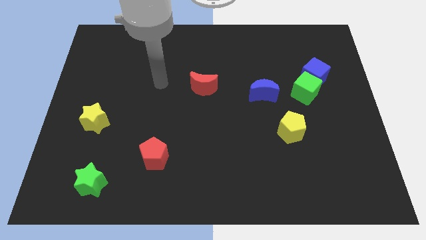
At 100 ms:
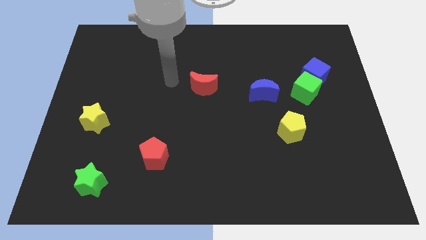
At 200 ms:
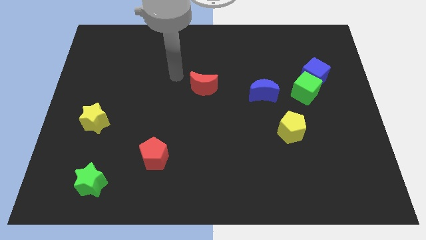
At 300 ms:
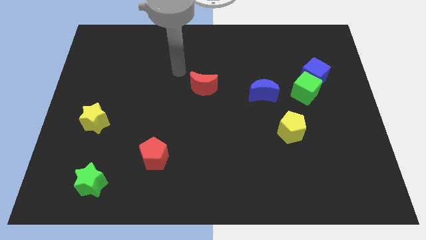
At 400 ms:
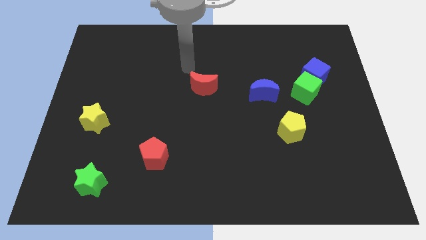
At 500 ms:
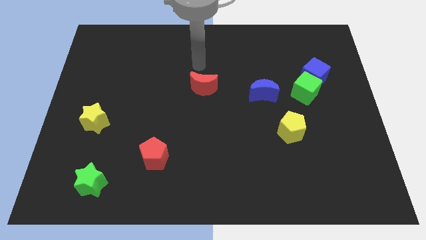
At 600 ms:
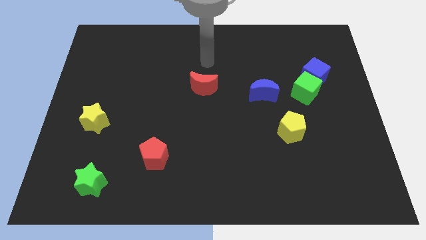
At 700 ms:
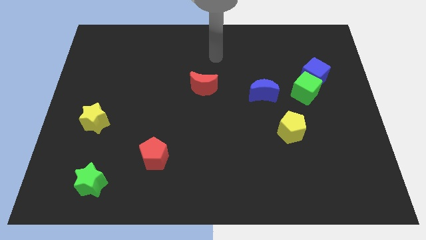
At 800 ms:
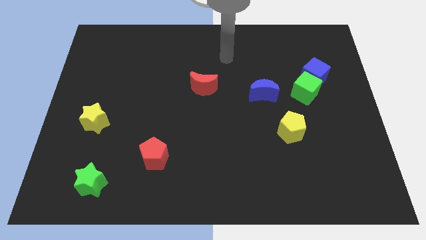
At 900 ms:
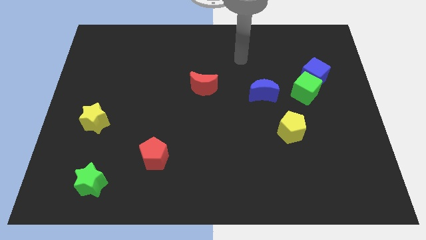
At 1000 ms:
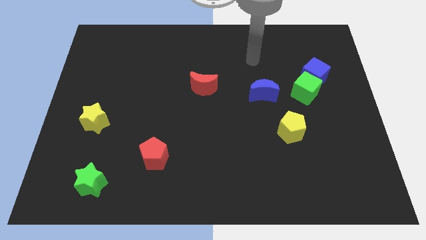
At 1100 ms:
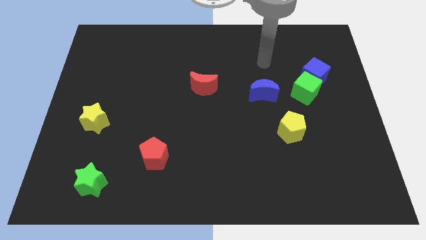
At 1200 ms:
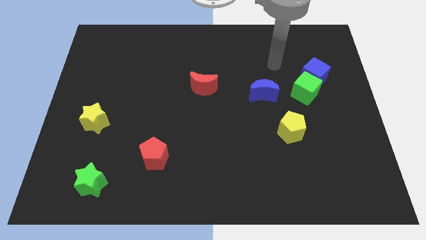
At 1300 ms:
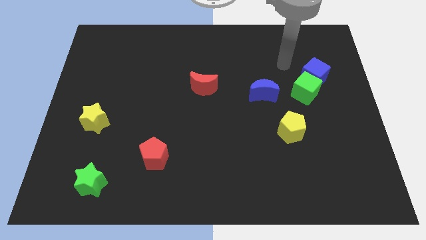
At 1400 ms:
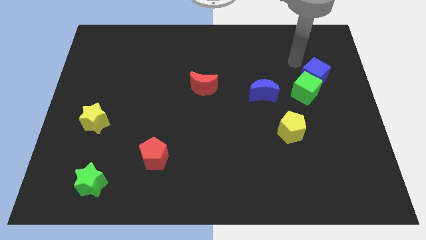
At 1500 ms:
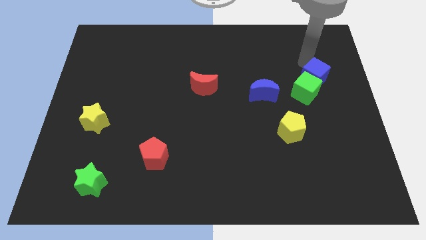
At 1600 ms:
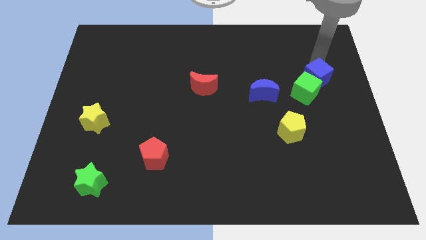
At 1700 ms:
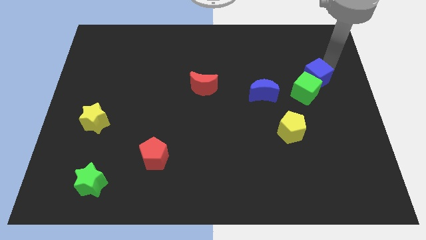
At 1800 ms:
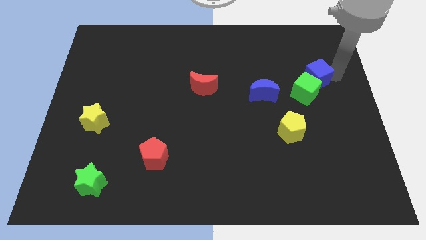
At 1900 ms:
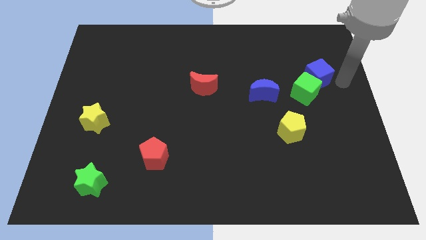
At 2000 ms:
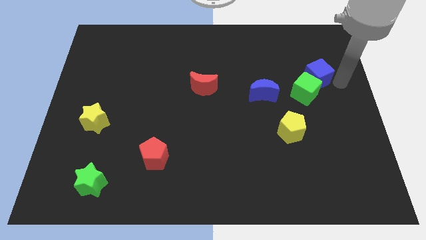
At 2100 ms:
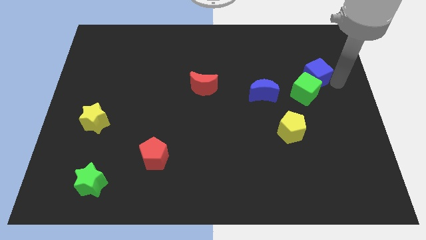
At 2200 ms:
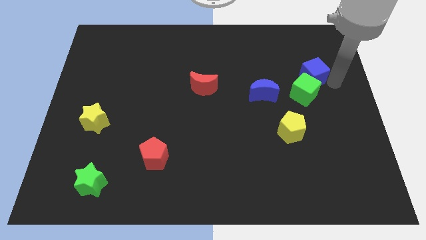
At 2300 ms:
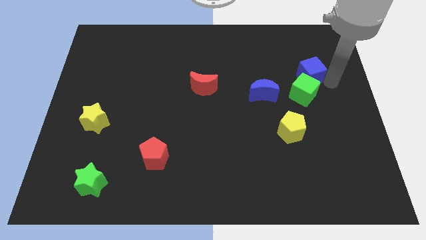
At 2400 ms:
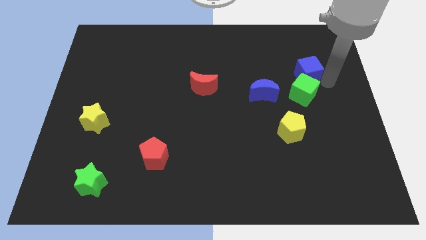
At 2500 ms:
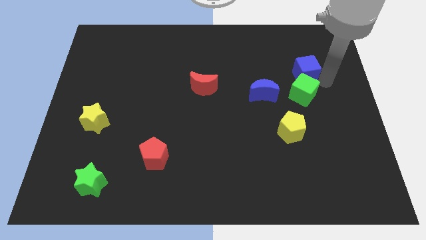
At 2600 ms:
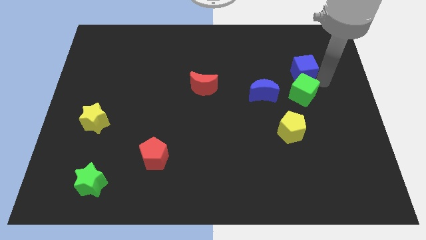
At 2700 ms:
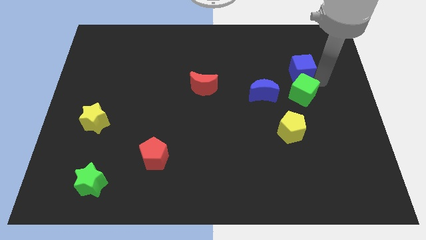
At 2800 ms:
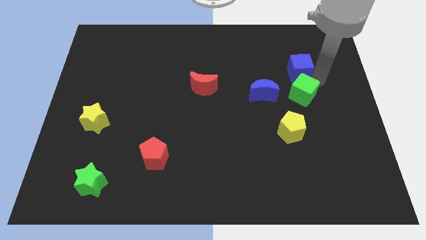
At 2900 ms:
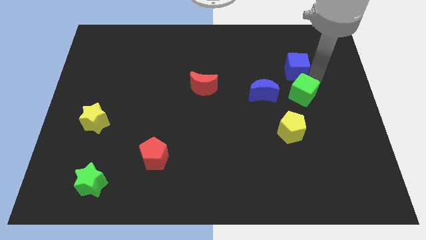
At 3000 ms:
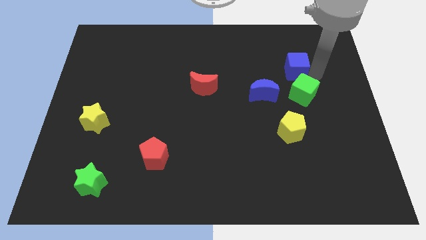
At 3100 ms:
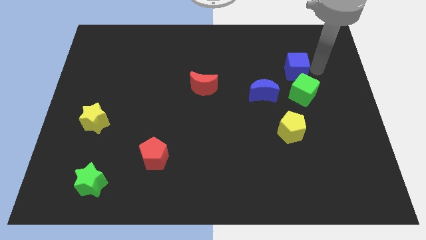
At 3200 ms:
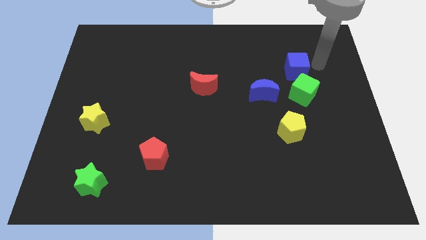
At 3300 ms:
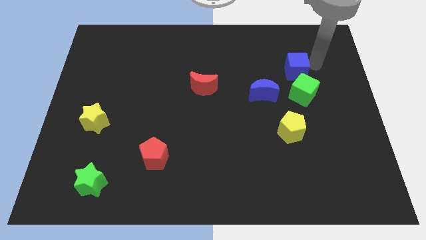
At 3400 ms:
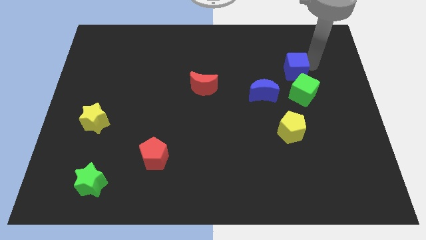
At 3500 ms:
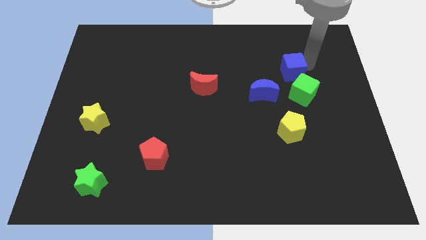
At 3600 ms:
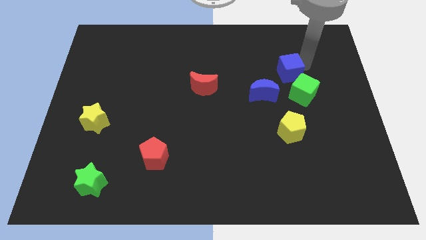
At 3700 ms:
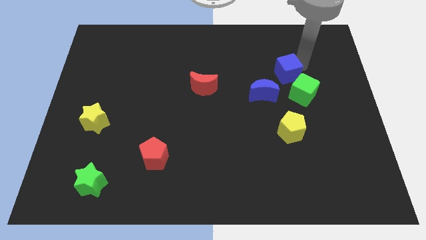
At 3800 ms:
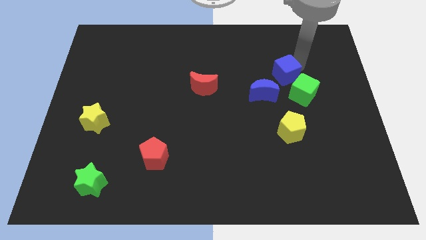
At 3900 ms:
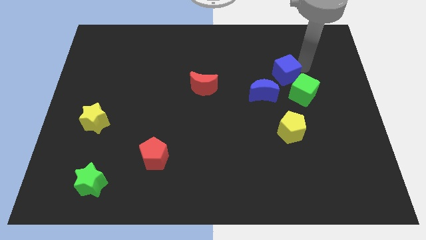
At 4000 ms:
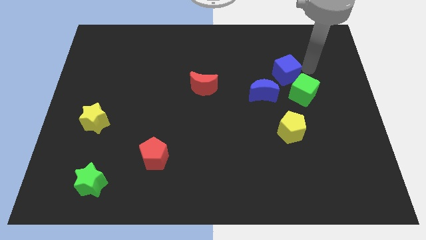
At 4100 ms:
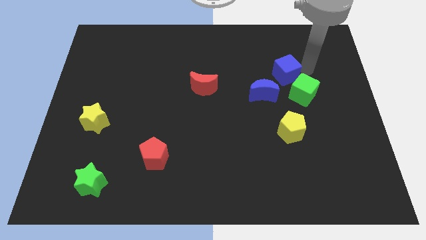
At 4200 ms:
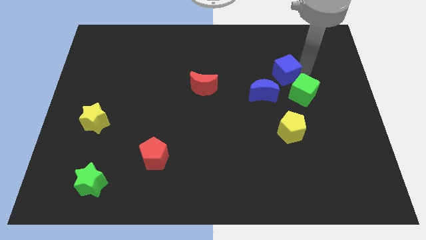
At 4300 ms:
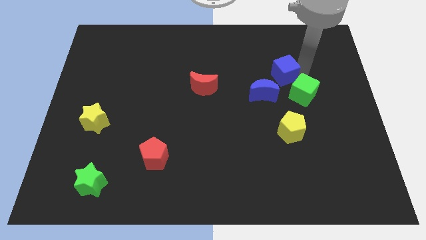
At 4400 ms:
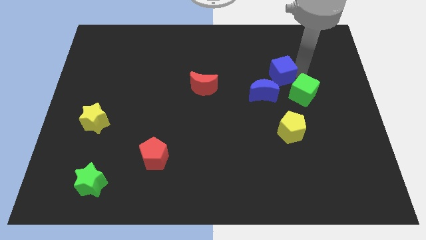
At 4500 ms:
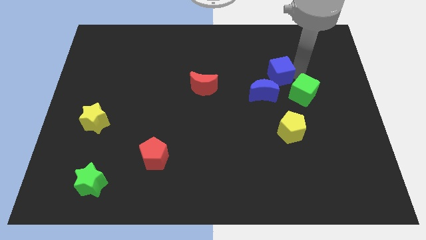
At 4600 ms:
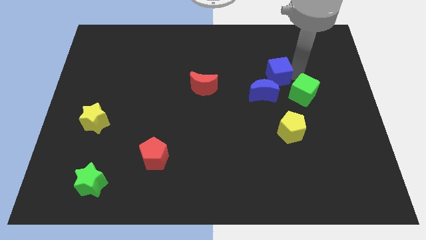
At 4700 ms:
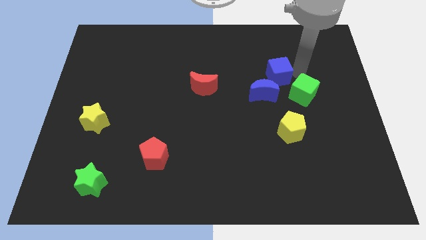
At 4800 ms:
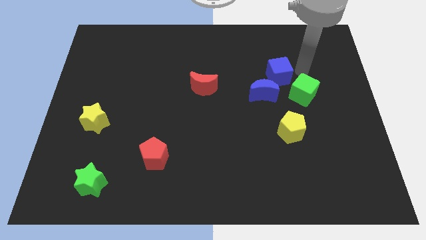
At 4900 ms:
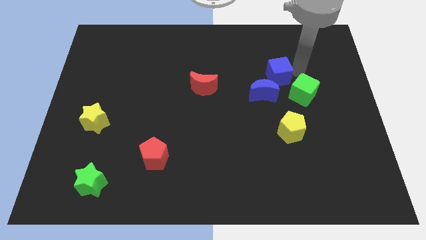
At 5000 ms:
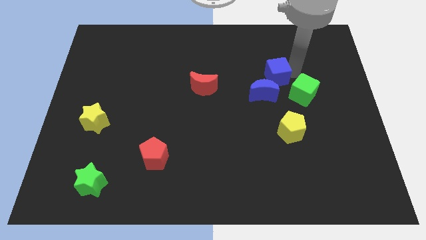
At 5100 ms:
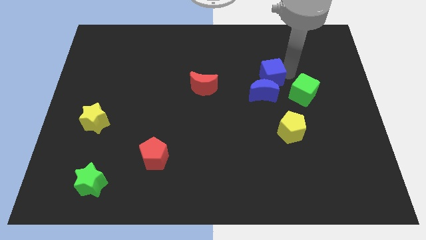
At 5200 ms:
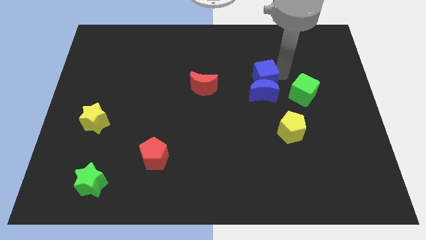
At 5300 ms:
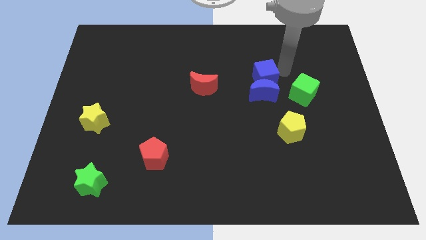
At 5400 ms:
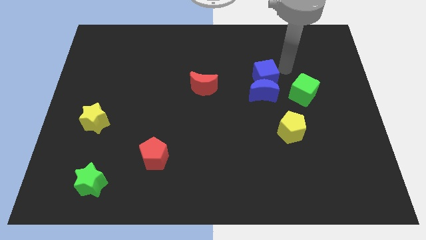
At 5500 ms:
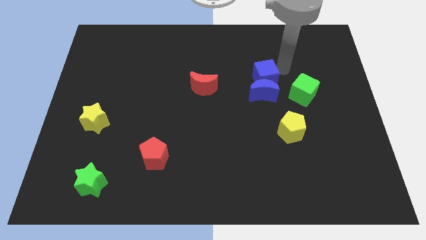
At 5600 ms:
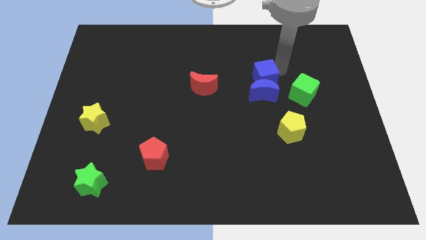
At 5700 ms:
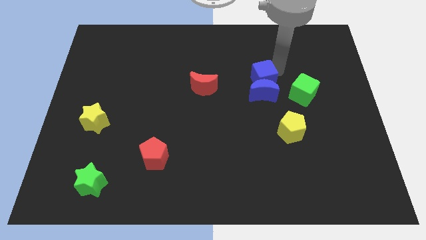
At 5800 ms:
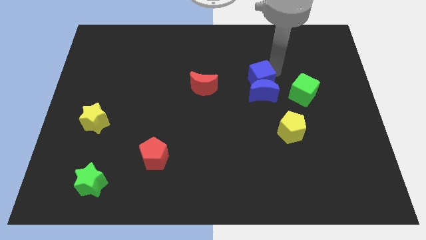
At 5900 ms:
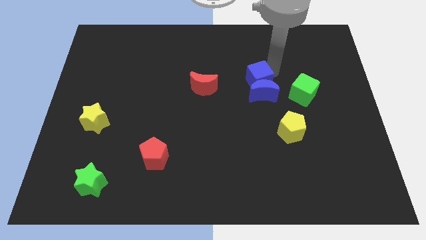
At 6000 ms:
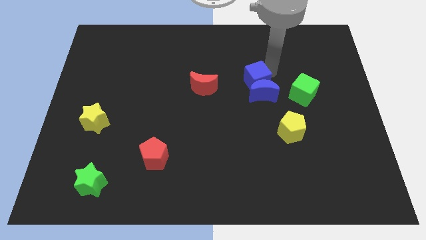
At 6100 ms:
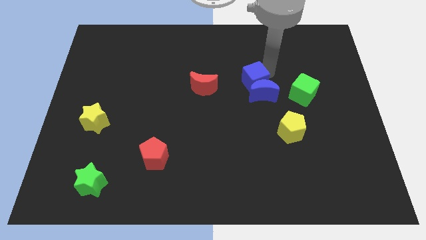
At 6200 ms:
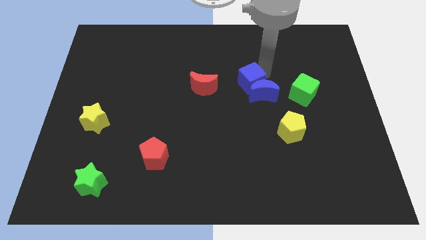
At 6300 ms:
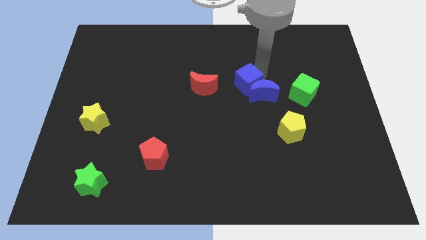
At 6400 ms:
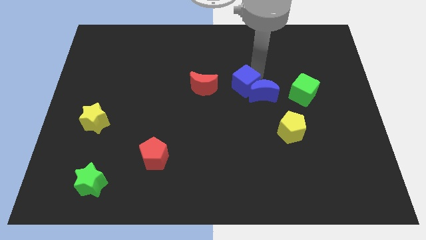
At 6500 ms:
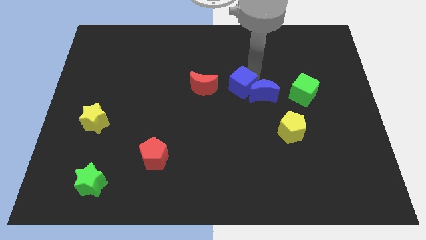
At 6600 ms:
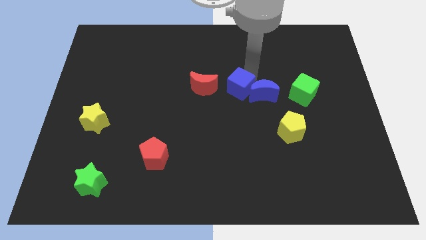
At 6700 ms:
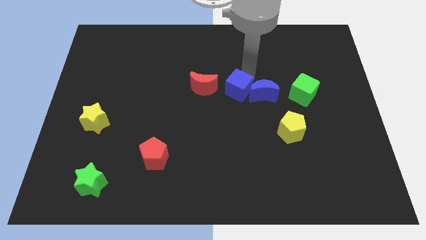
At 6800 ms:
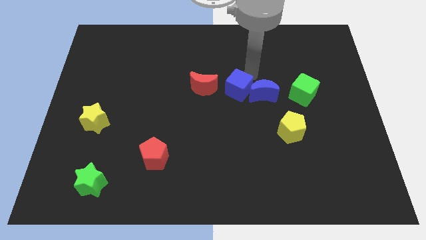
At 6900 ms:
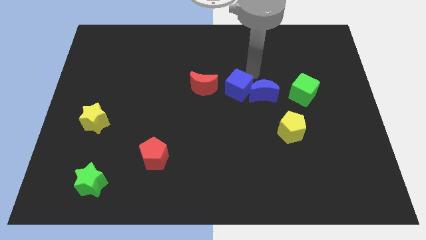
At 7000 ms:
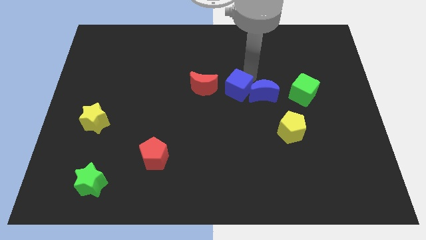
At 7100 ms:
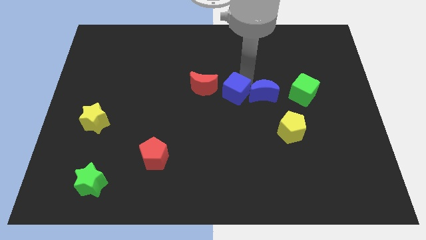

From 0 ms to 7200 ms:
put the blue cube diagonally down and to the right of the red moon
